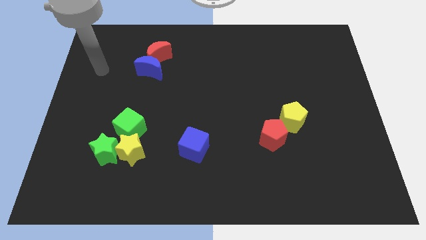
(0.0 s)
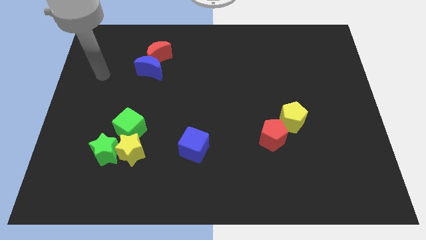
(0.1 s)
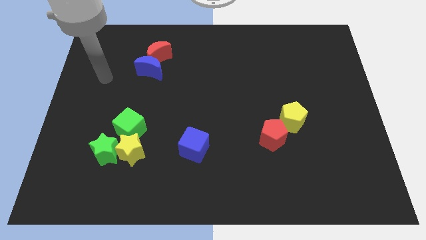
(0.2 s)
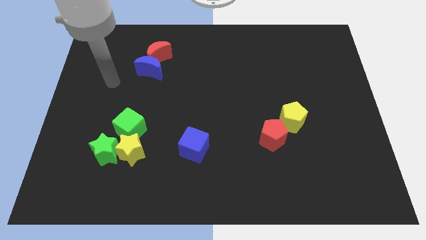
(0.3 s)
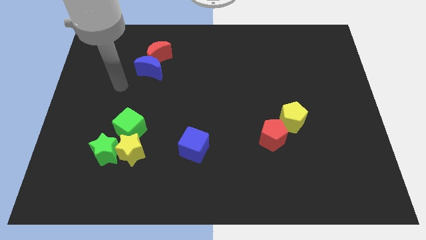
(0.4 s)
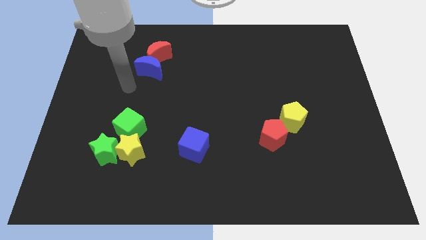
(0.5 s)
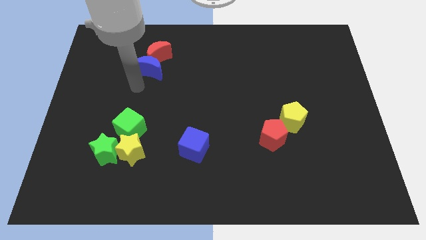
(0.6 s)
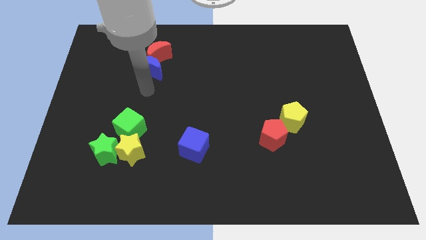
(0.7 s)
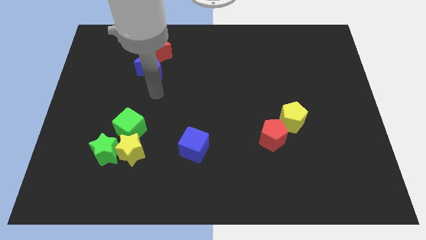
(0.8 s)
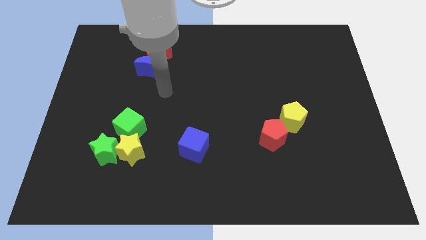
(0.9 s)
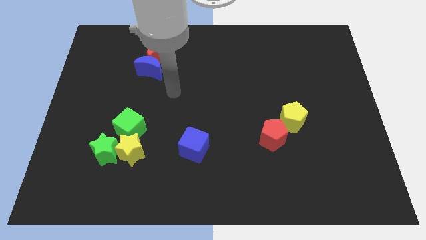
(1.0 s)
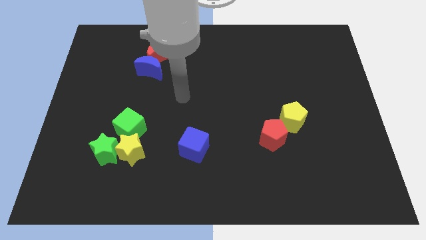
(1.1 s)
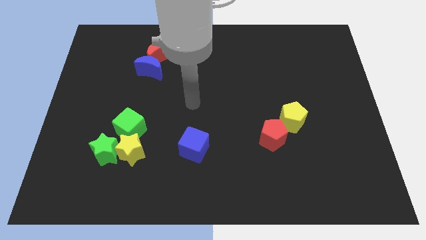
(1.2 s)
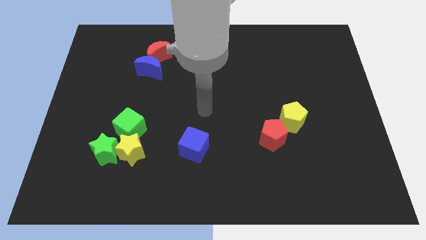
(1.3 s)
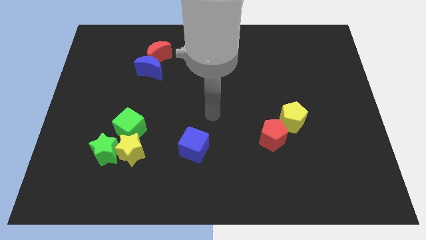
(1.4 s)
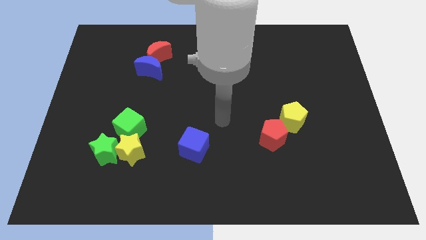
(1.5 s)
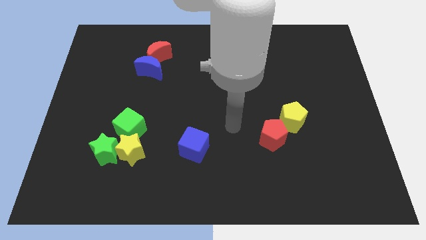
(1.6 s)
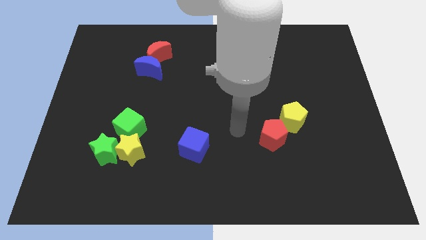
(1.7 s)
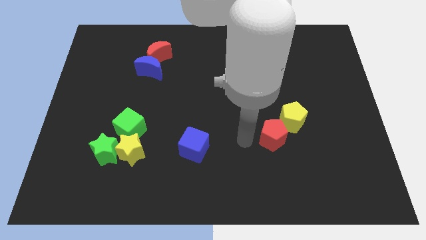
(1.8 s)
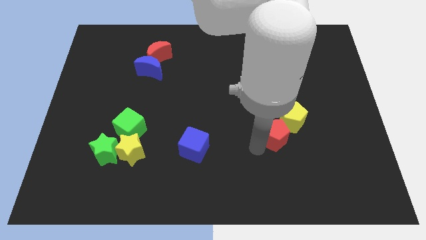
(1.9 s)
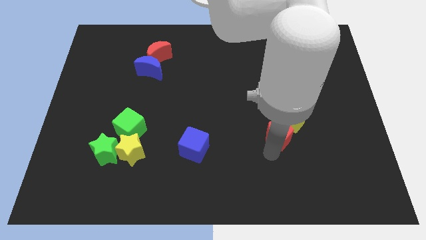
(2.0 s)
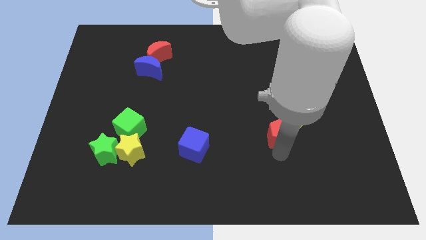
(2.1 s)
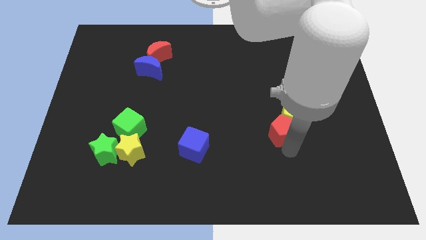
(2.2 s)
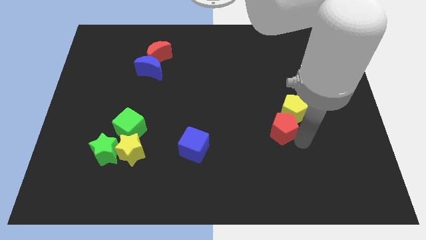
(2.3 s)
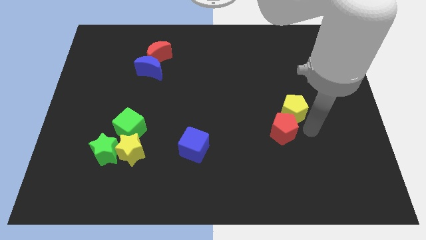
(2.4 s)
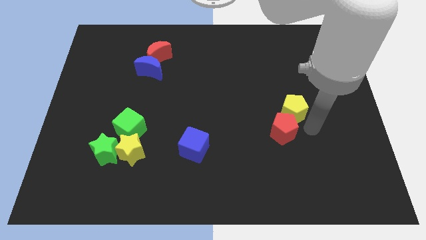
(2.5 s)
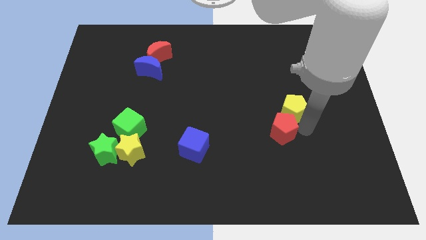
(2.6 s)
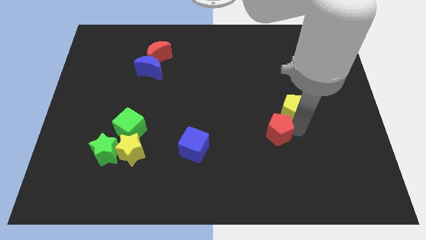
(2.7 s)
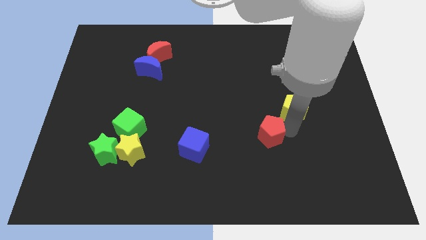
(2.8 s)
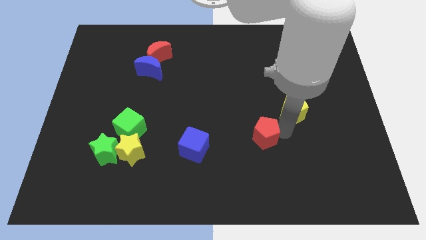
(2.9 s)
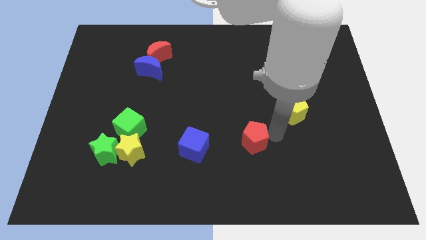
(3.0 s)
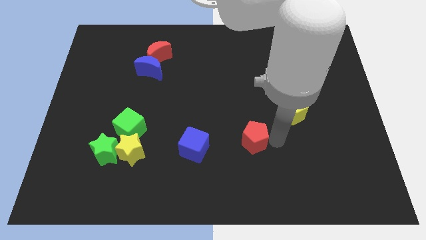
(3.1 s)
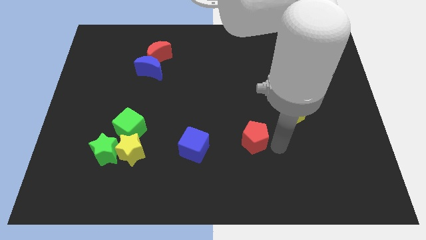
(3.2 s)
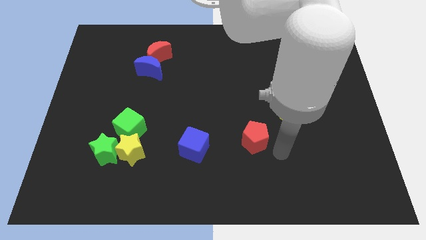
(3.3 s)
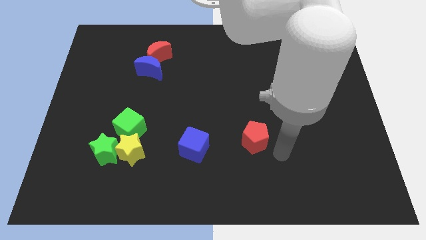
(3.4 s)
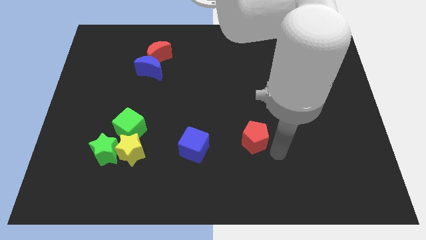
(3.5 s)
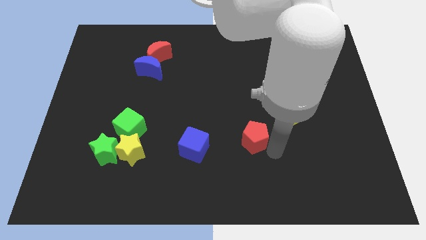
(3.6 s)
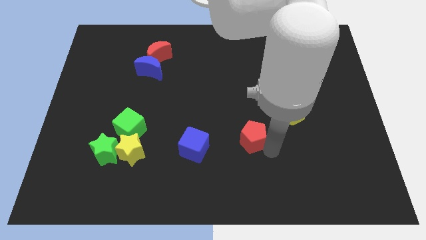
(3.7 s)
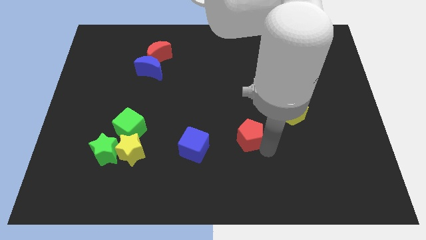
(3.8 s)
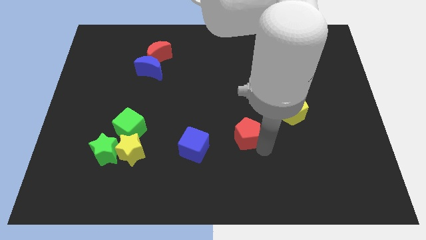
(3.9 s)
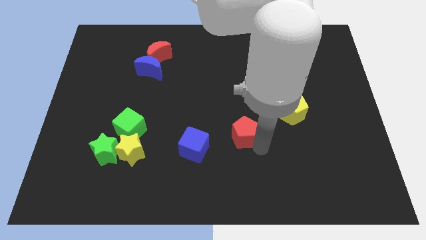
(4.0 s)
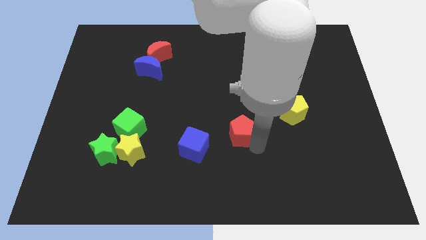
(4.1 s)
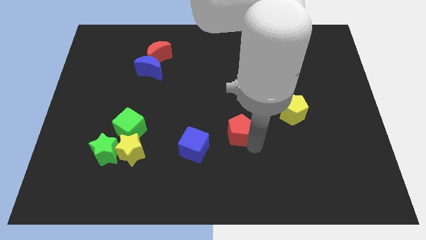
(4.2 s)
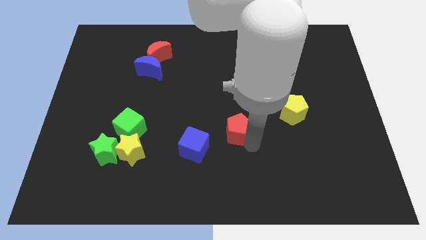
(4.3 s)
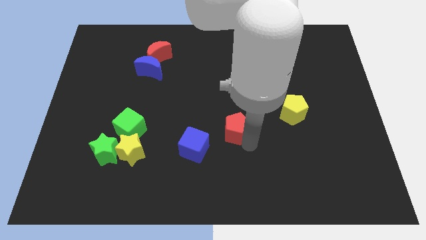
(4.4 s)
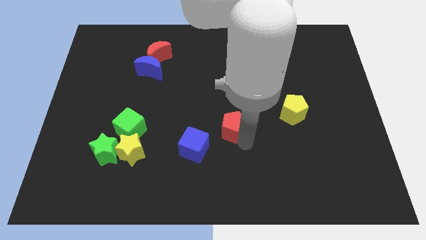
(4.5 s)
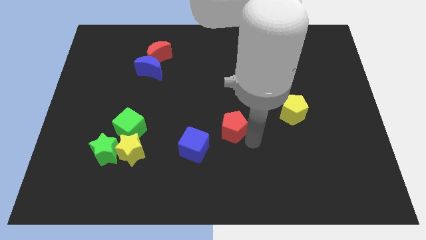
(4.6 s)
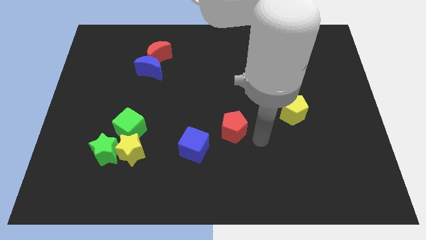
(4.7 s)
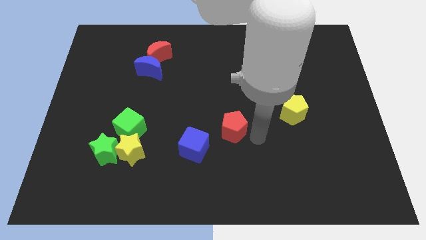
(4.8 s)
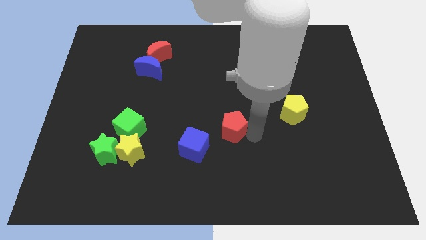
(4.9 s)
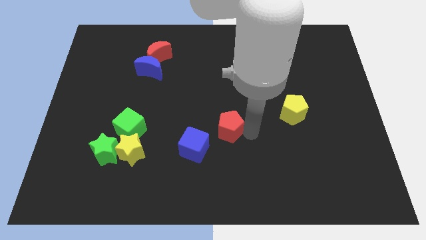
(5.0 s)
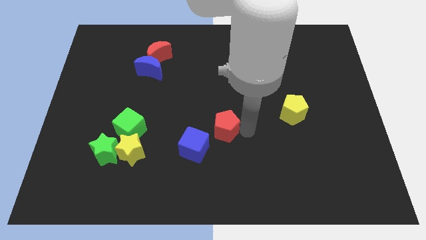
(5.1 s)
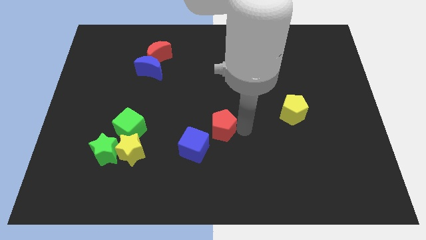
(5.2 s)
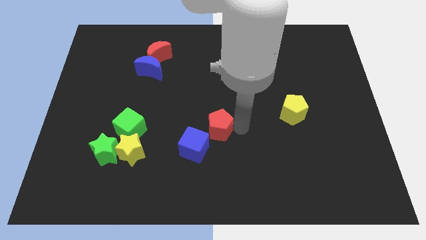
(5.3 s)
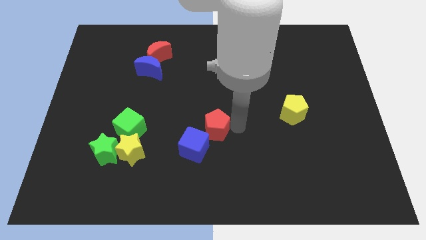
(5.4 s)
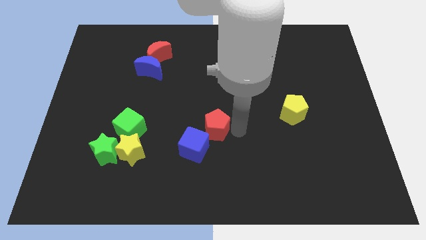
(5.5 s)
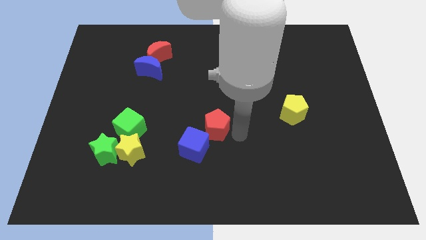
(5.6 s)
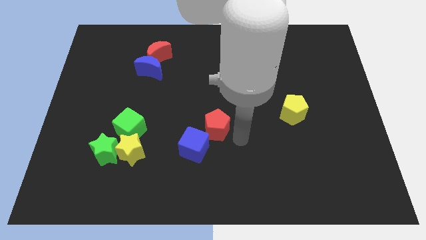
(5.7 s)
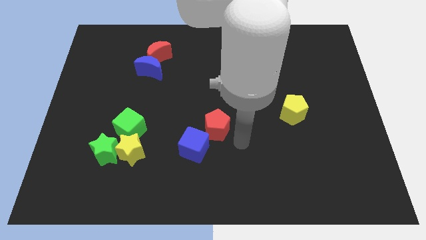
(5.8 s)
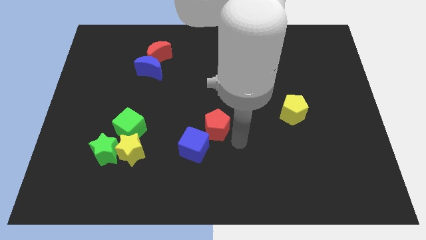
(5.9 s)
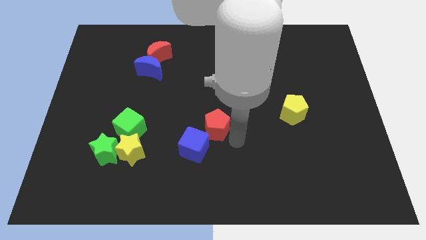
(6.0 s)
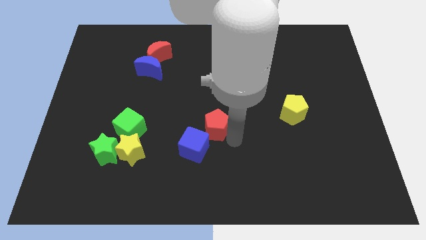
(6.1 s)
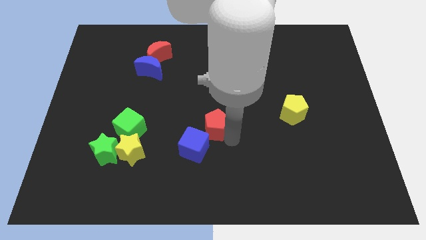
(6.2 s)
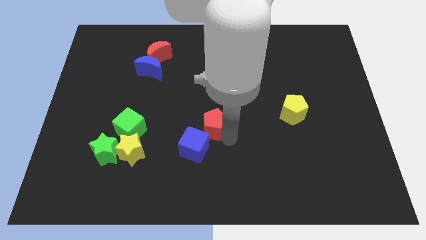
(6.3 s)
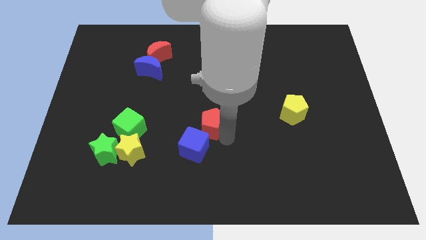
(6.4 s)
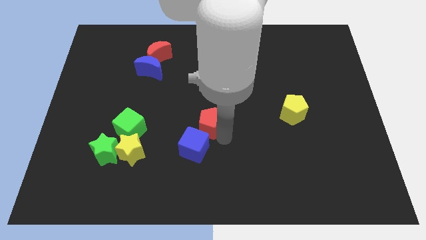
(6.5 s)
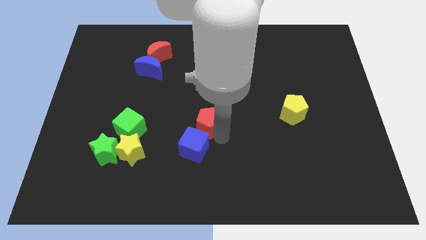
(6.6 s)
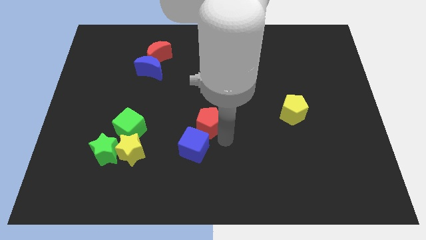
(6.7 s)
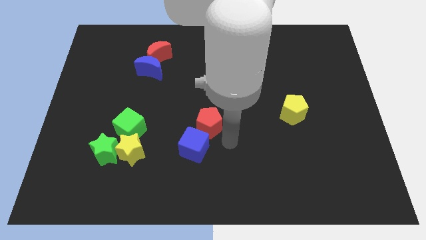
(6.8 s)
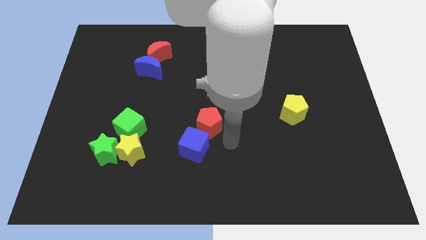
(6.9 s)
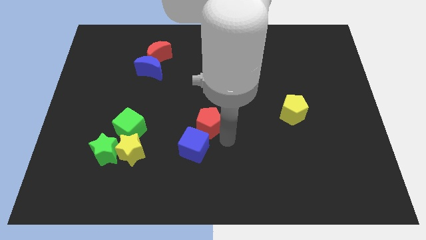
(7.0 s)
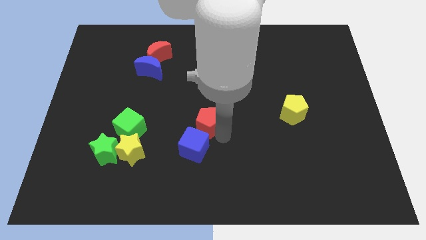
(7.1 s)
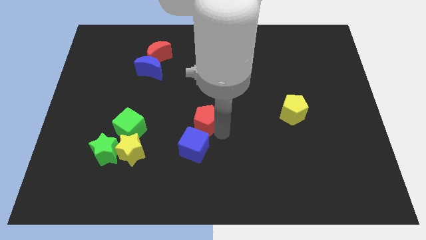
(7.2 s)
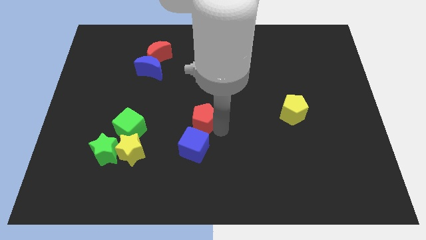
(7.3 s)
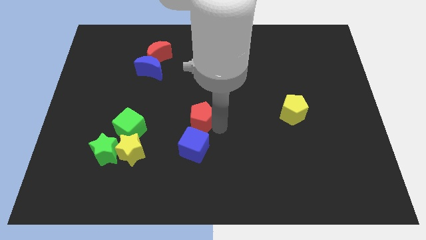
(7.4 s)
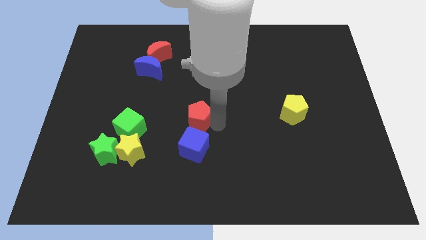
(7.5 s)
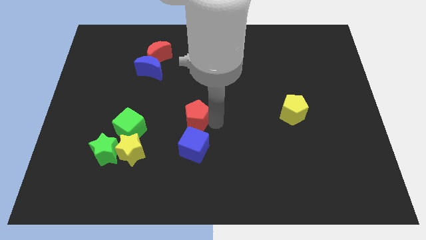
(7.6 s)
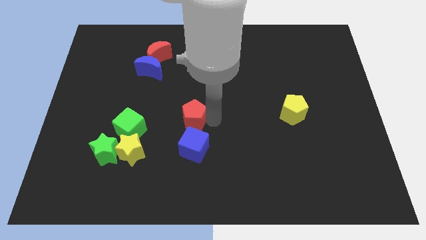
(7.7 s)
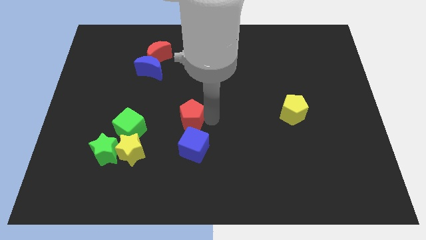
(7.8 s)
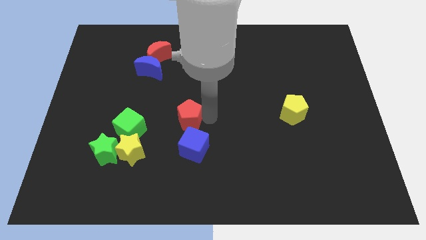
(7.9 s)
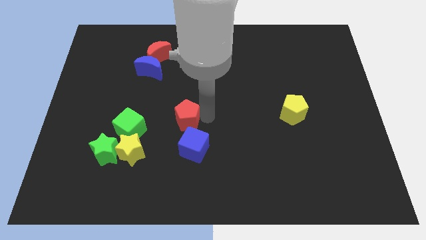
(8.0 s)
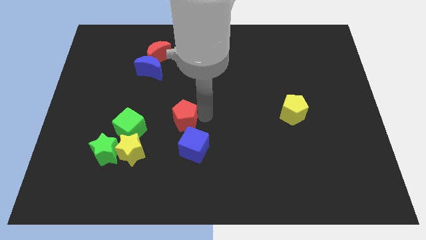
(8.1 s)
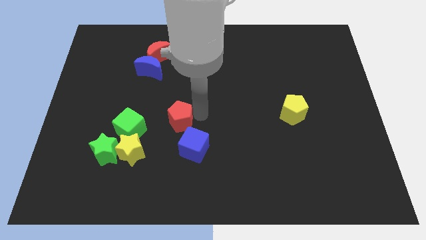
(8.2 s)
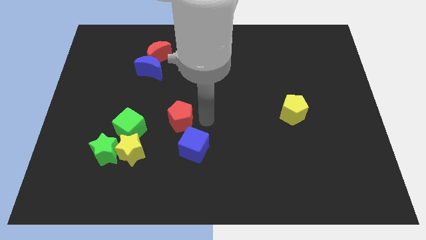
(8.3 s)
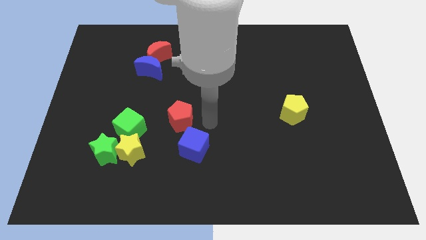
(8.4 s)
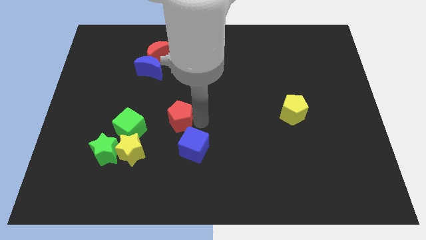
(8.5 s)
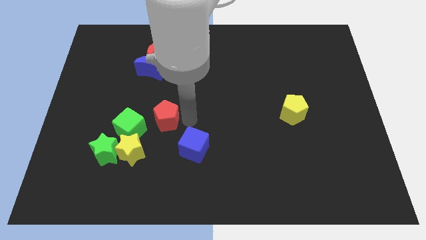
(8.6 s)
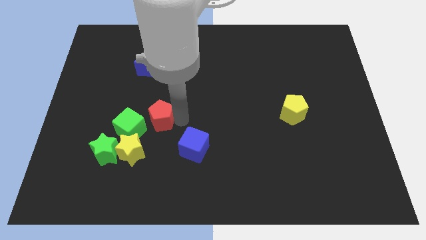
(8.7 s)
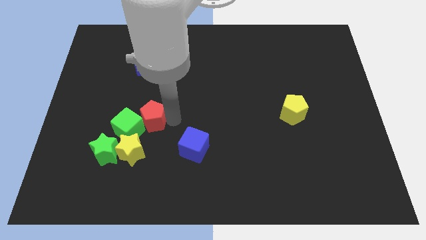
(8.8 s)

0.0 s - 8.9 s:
slide the red pentagon to the top of the yellow star
